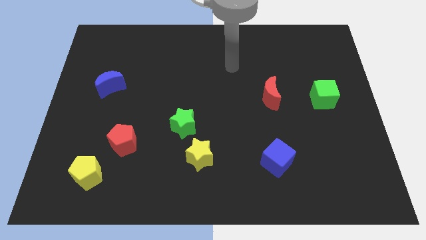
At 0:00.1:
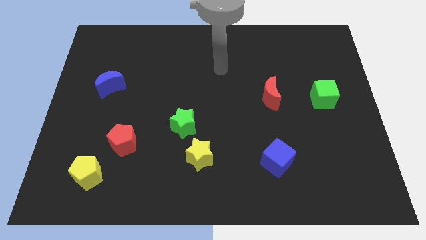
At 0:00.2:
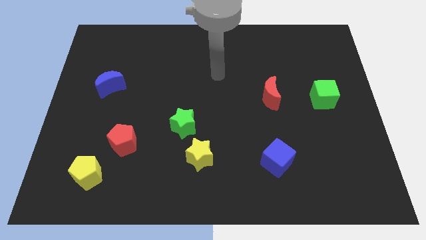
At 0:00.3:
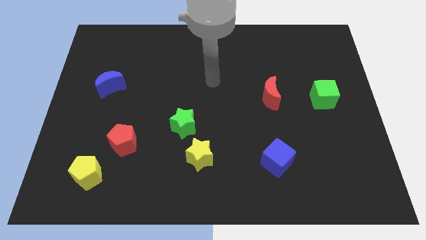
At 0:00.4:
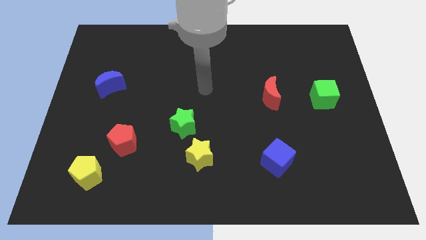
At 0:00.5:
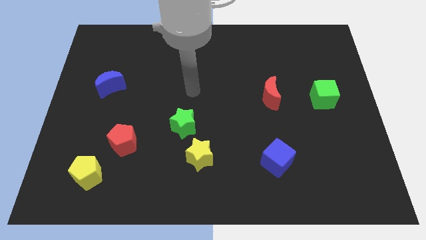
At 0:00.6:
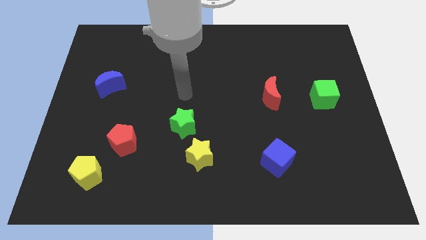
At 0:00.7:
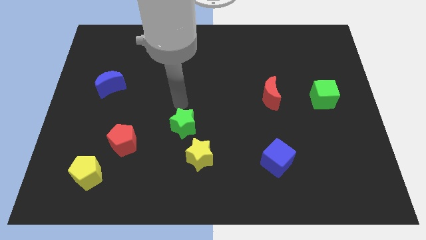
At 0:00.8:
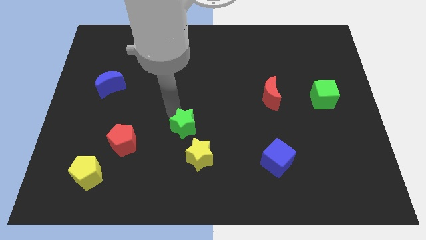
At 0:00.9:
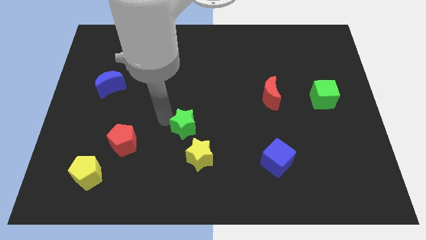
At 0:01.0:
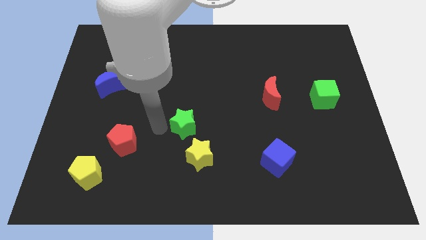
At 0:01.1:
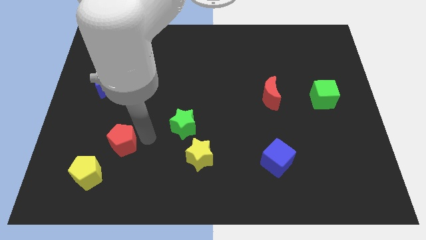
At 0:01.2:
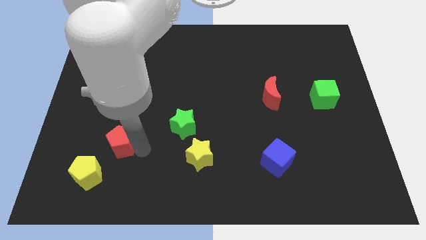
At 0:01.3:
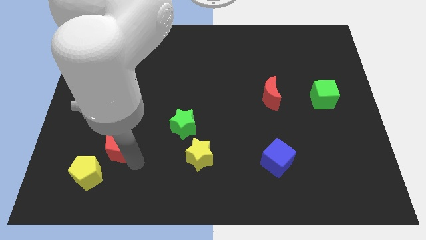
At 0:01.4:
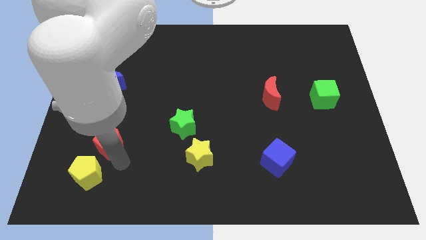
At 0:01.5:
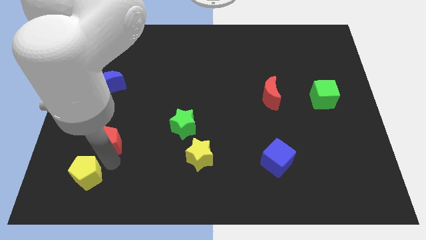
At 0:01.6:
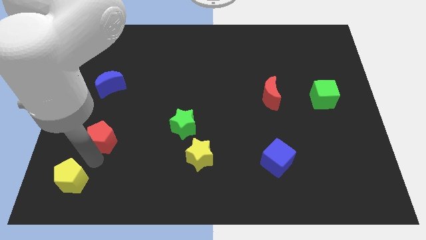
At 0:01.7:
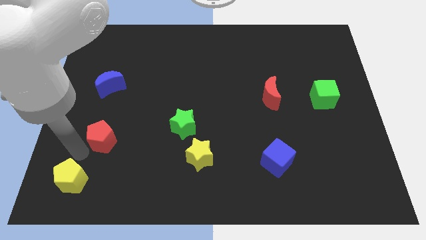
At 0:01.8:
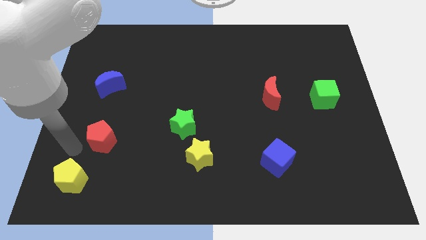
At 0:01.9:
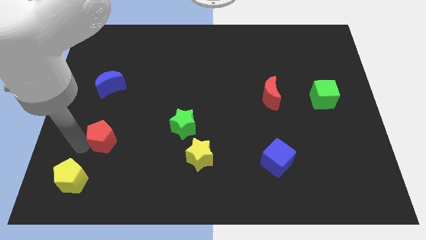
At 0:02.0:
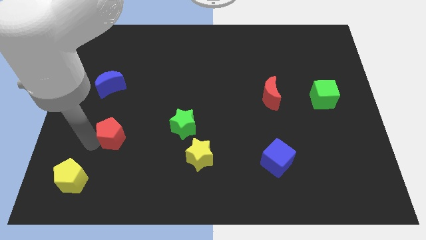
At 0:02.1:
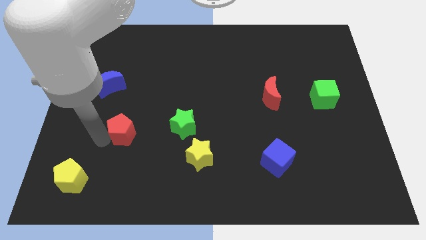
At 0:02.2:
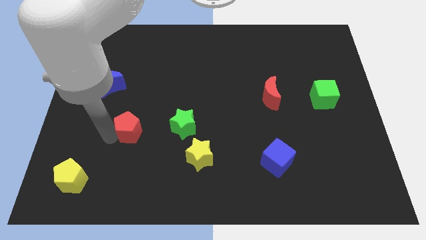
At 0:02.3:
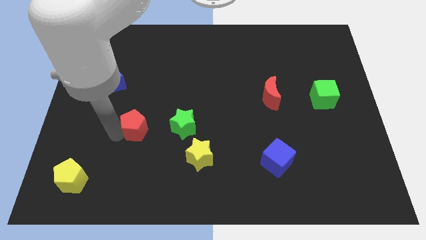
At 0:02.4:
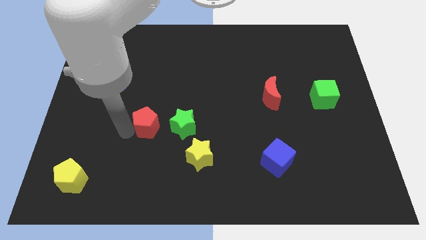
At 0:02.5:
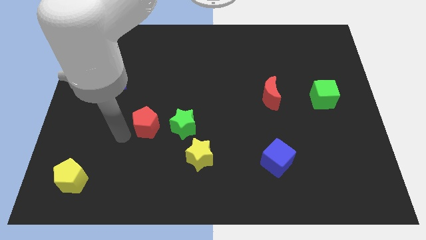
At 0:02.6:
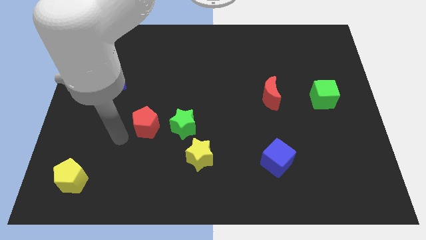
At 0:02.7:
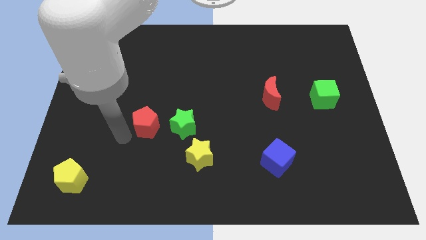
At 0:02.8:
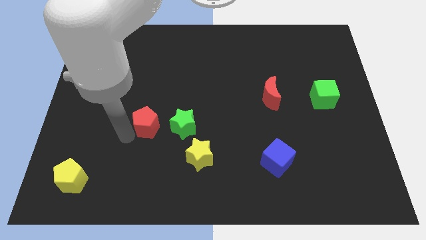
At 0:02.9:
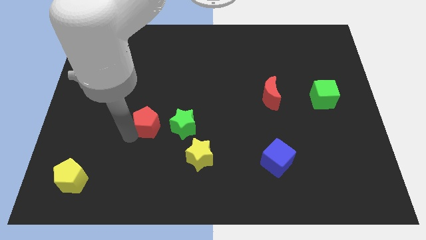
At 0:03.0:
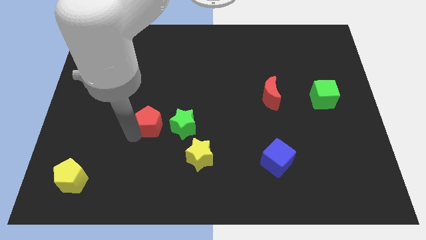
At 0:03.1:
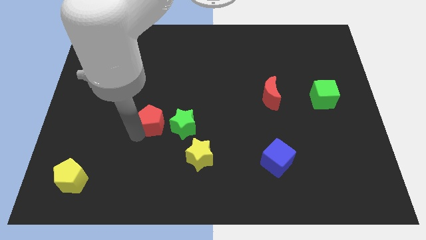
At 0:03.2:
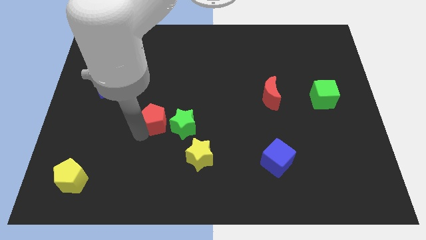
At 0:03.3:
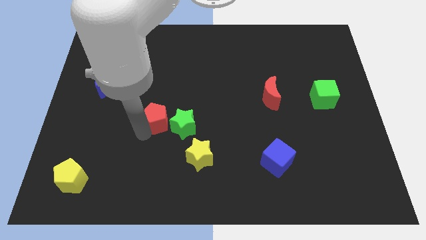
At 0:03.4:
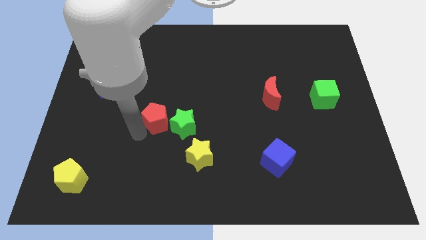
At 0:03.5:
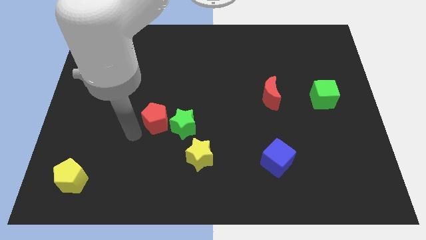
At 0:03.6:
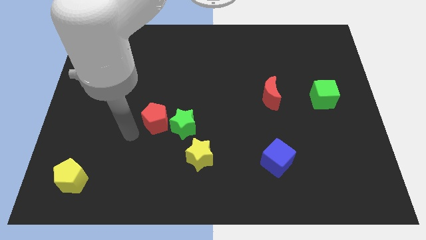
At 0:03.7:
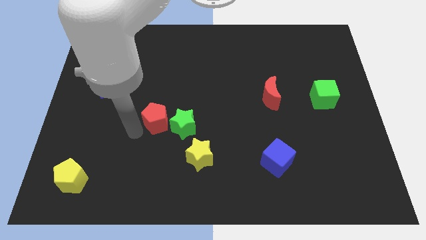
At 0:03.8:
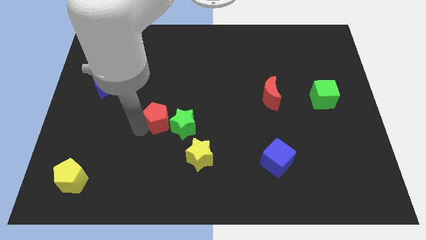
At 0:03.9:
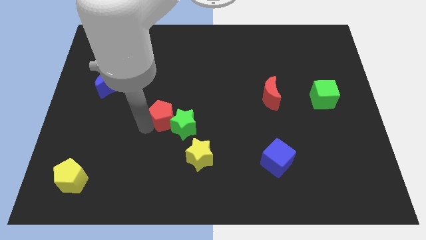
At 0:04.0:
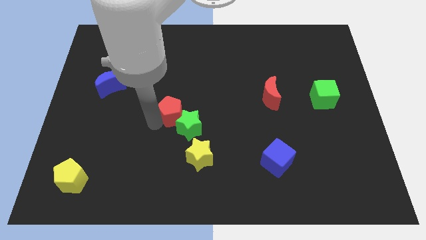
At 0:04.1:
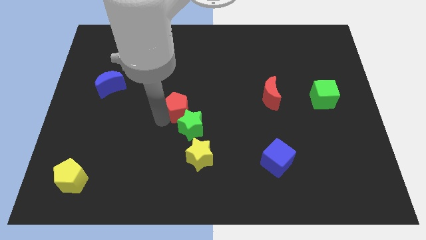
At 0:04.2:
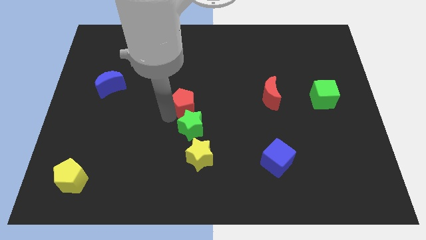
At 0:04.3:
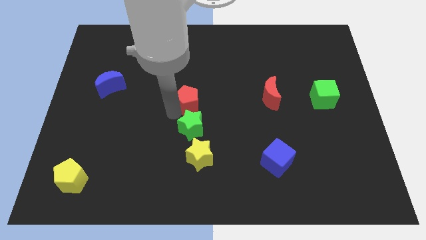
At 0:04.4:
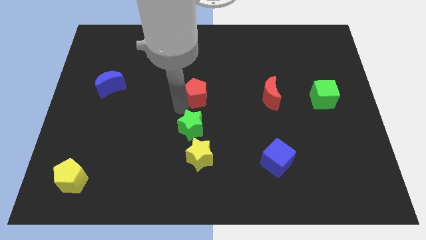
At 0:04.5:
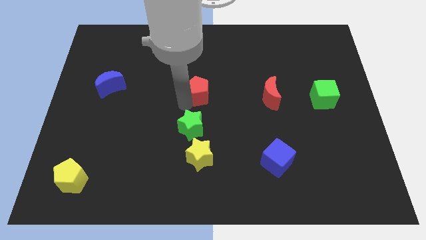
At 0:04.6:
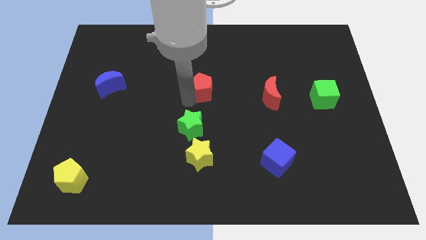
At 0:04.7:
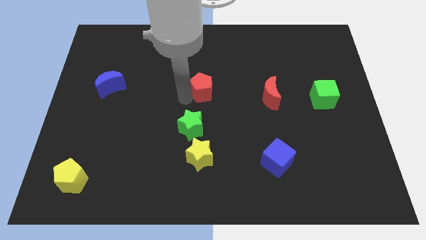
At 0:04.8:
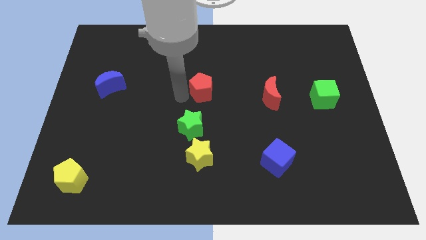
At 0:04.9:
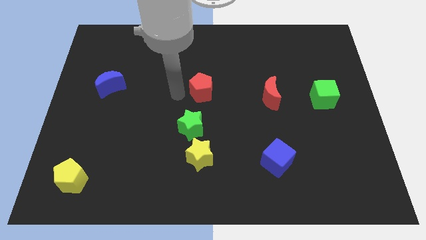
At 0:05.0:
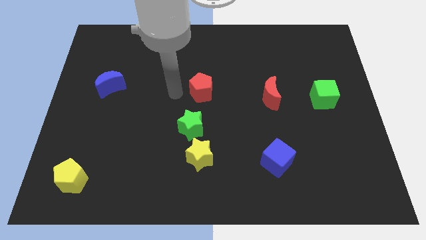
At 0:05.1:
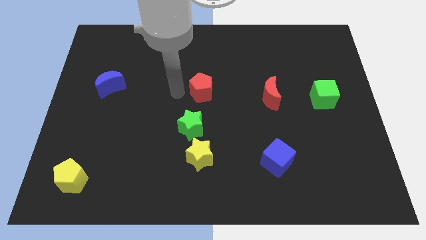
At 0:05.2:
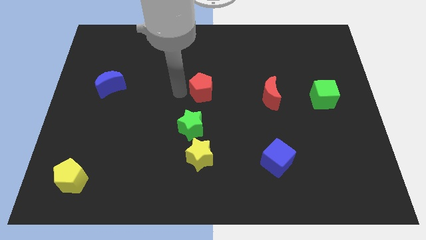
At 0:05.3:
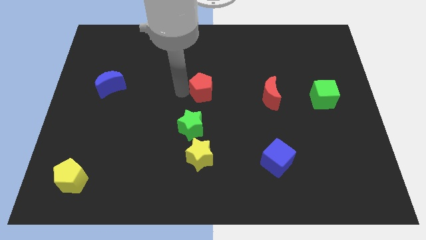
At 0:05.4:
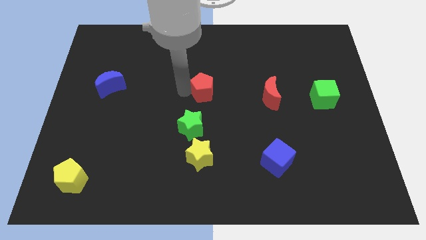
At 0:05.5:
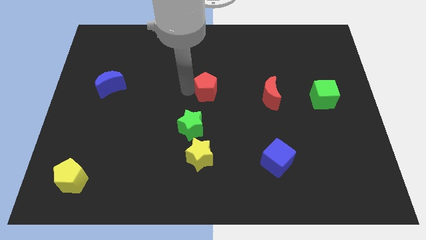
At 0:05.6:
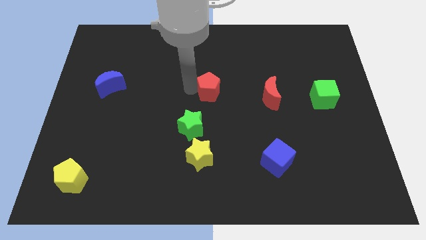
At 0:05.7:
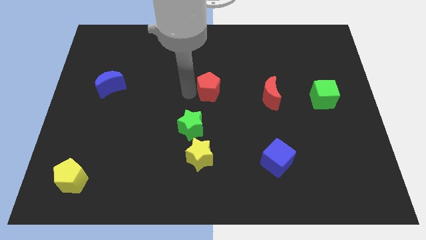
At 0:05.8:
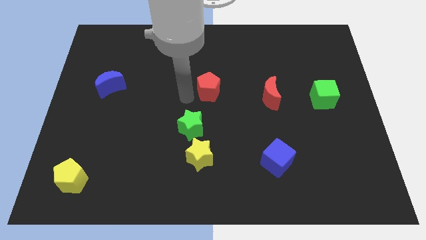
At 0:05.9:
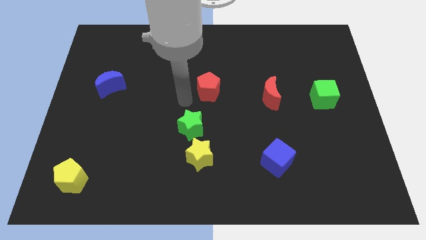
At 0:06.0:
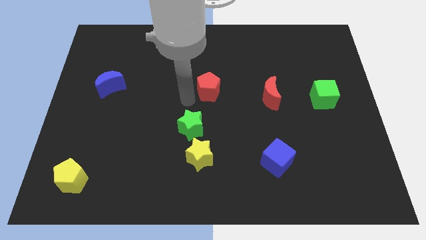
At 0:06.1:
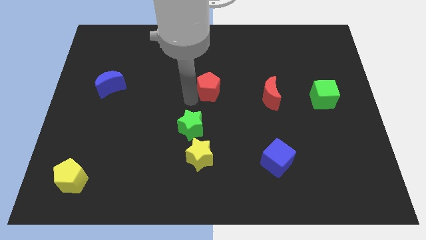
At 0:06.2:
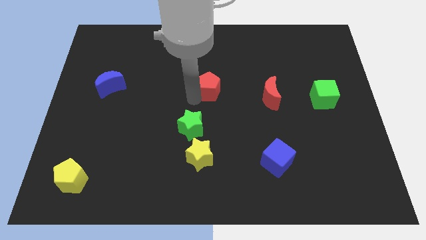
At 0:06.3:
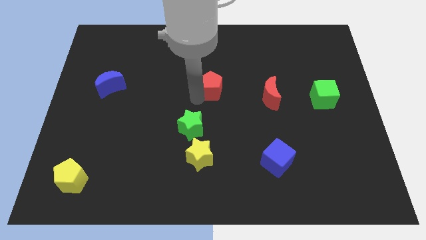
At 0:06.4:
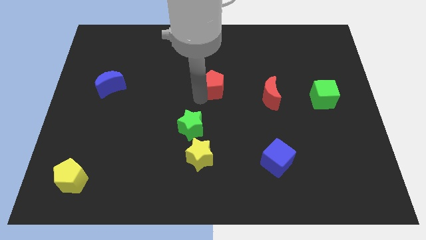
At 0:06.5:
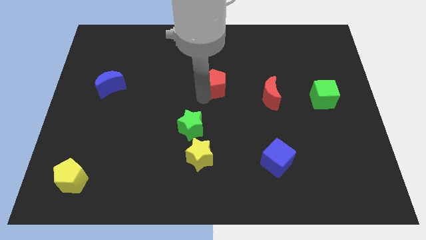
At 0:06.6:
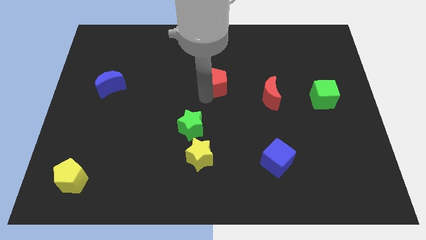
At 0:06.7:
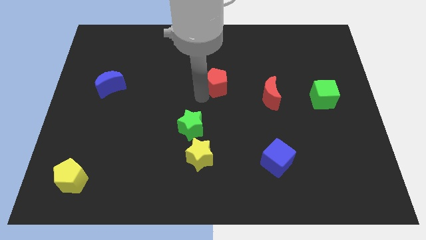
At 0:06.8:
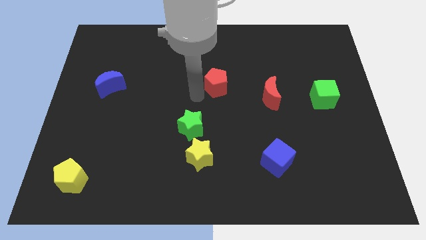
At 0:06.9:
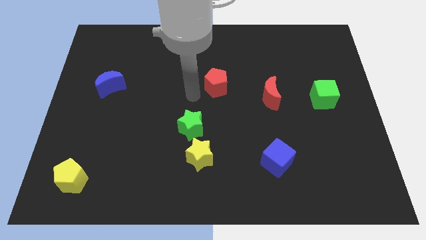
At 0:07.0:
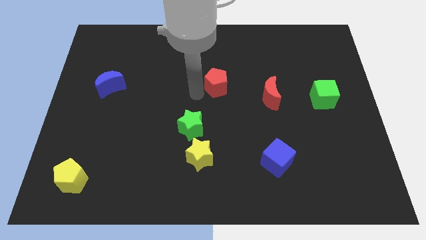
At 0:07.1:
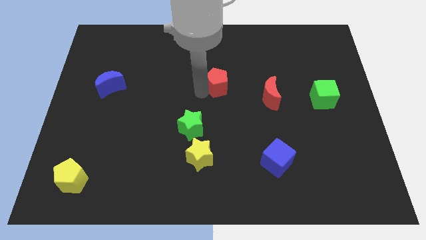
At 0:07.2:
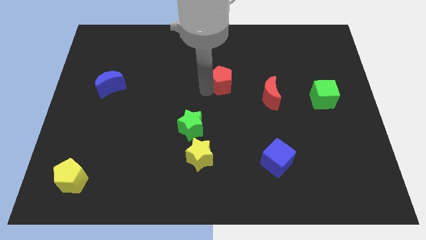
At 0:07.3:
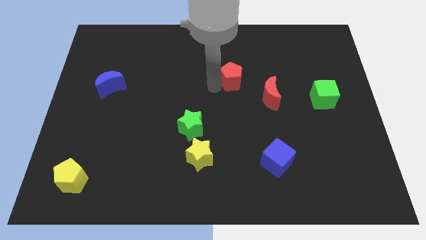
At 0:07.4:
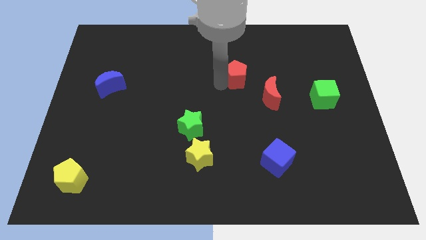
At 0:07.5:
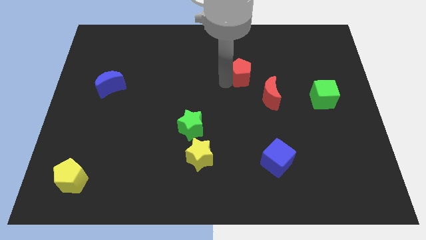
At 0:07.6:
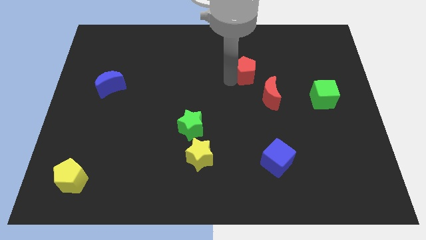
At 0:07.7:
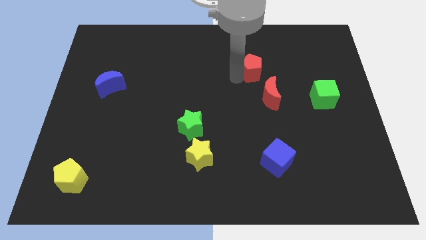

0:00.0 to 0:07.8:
push the red pentagon to the top of the red moon
